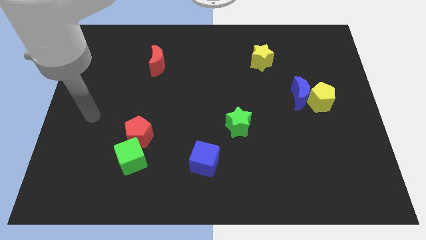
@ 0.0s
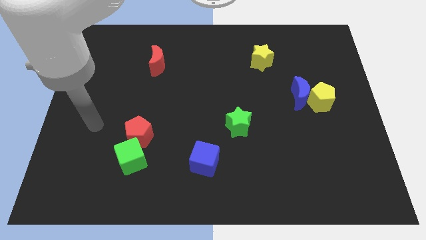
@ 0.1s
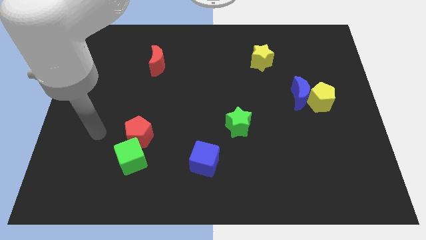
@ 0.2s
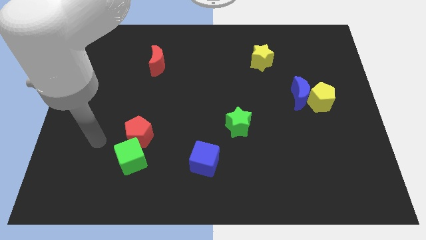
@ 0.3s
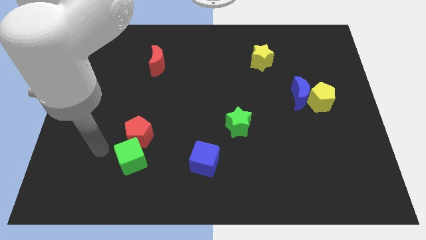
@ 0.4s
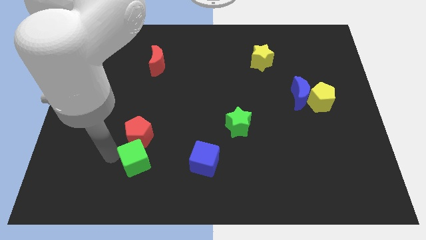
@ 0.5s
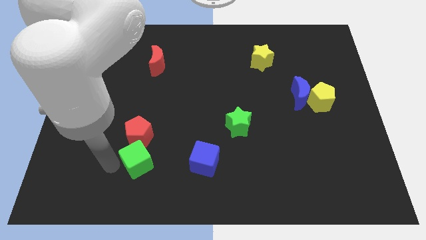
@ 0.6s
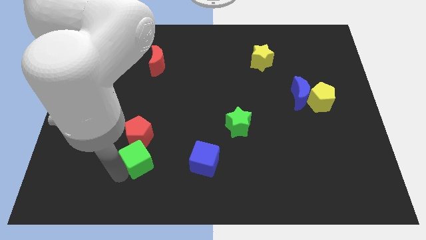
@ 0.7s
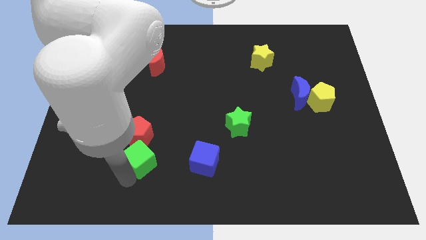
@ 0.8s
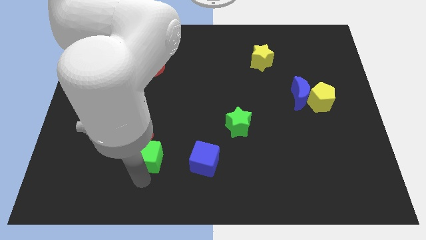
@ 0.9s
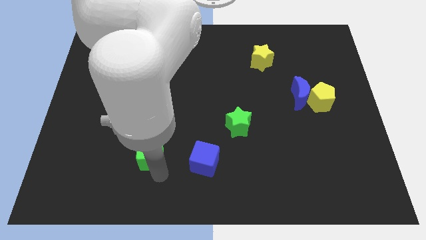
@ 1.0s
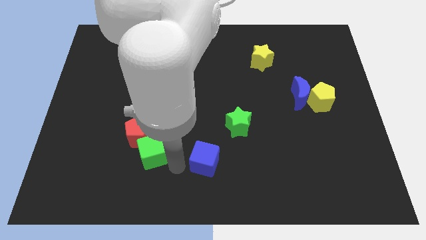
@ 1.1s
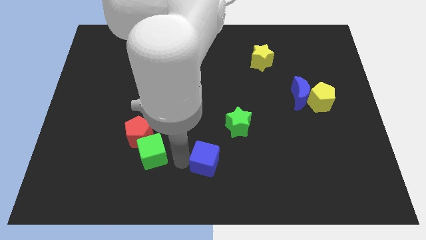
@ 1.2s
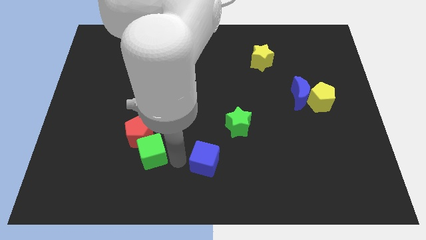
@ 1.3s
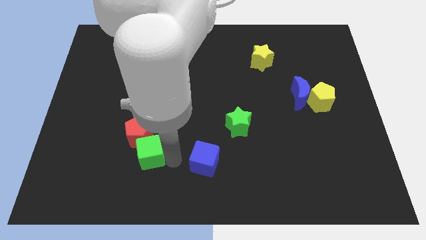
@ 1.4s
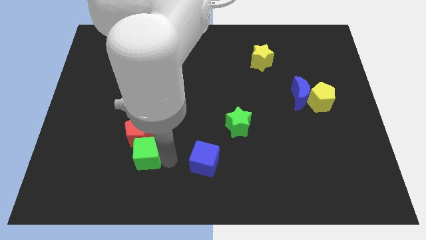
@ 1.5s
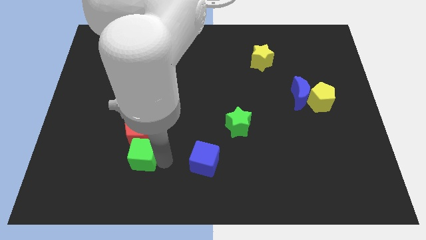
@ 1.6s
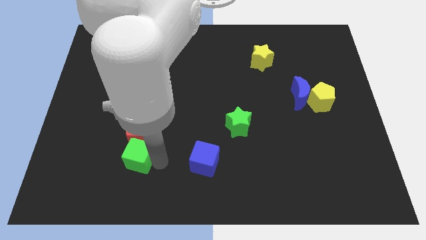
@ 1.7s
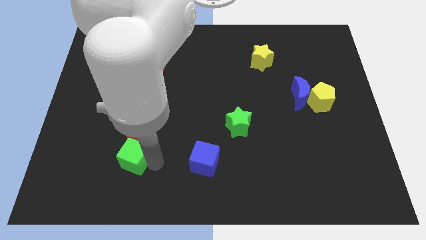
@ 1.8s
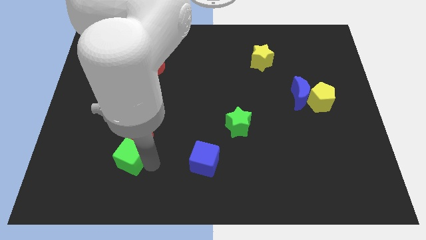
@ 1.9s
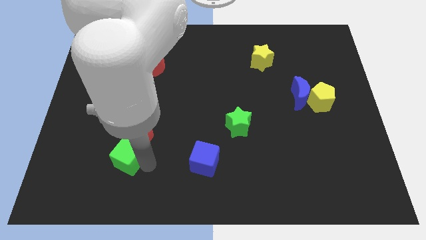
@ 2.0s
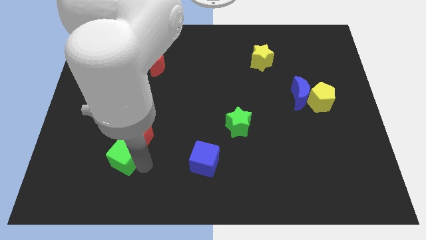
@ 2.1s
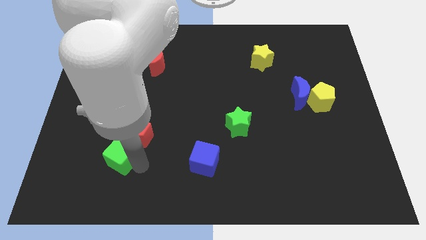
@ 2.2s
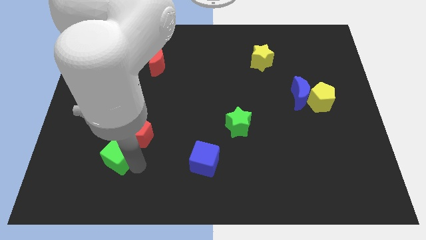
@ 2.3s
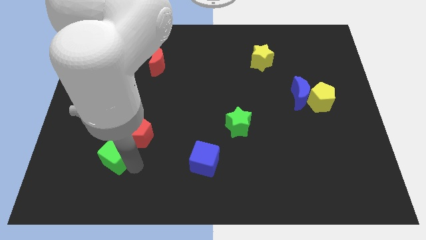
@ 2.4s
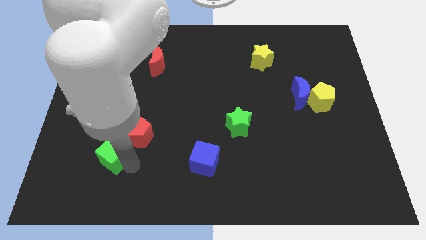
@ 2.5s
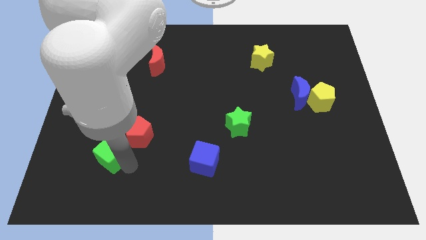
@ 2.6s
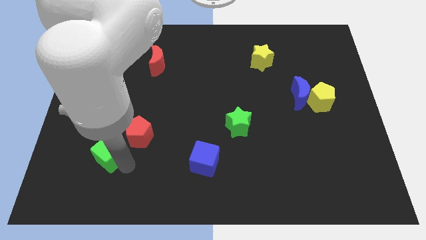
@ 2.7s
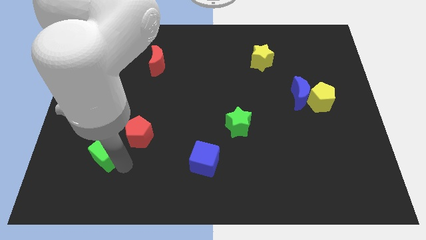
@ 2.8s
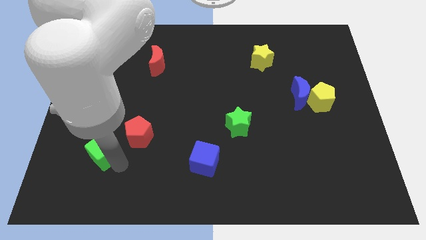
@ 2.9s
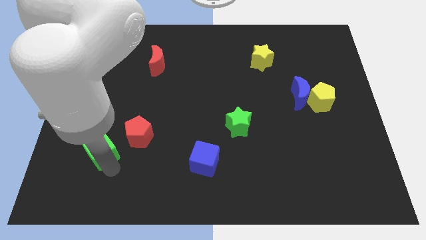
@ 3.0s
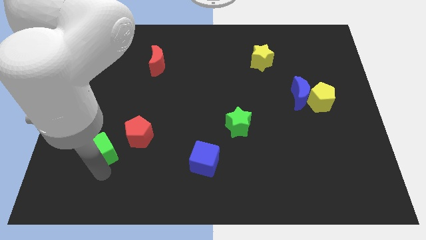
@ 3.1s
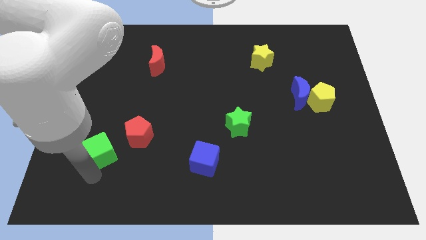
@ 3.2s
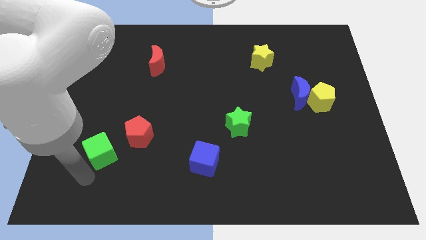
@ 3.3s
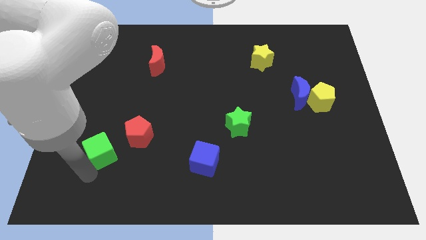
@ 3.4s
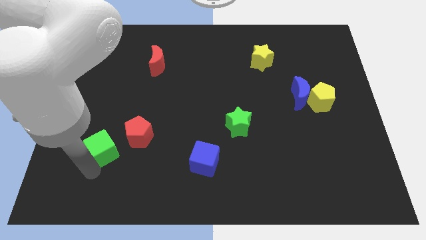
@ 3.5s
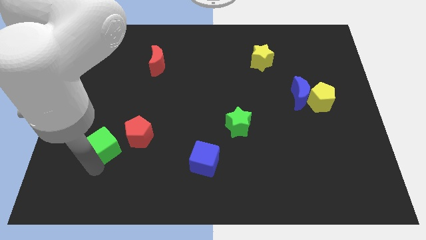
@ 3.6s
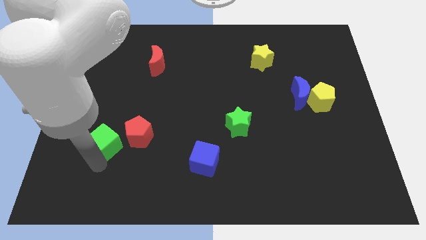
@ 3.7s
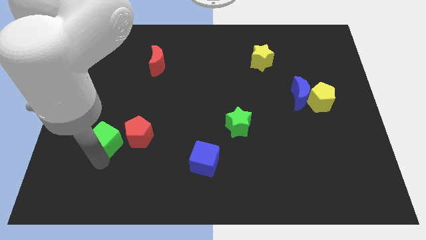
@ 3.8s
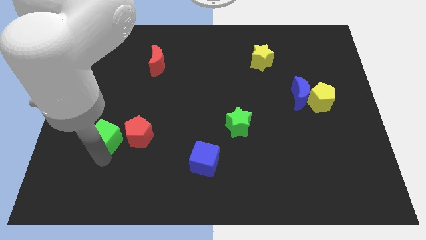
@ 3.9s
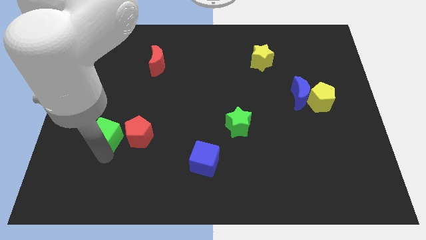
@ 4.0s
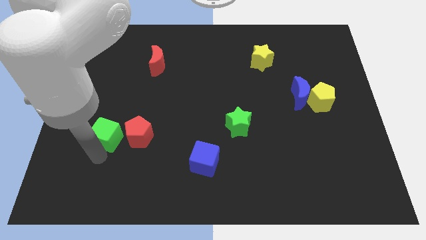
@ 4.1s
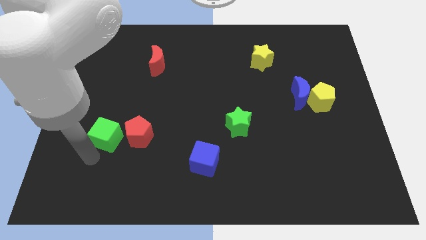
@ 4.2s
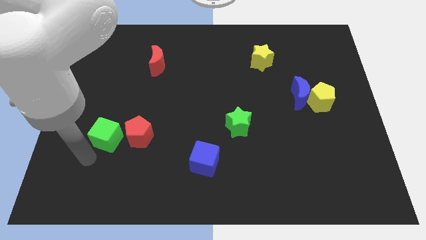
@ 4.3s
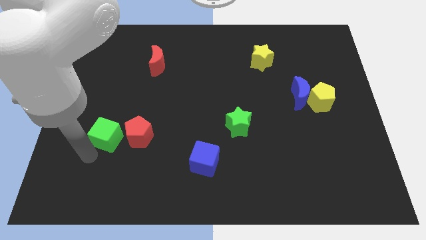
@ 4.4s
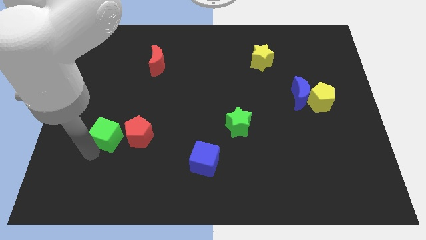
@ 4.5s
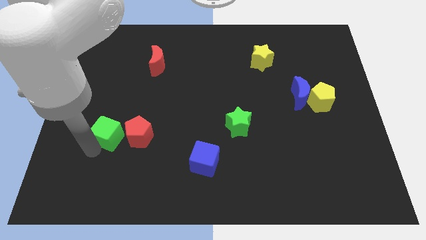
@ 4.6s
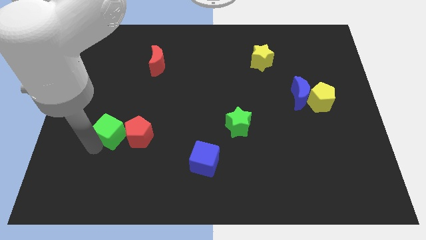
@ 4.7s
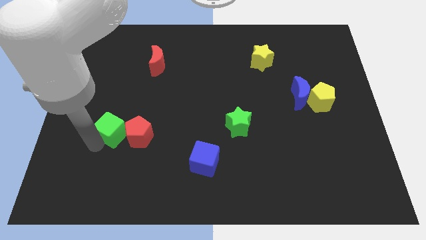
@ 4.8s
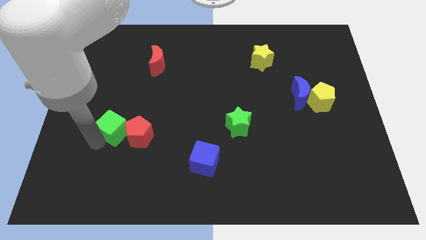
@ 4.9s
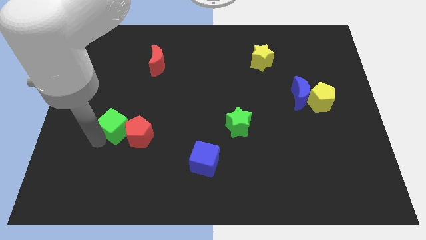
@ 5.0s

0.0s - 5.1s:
push the green cube upwards a bit

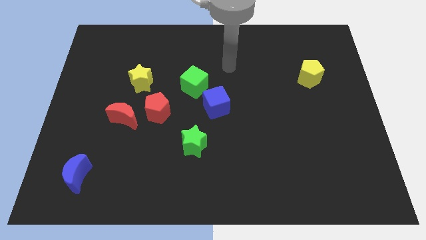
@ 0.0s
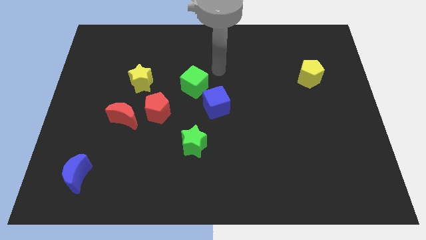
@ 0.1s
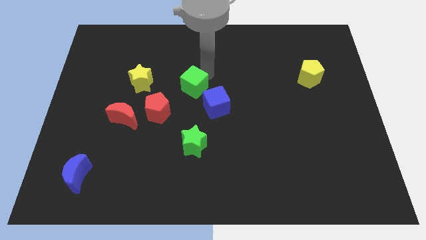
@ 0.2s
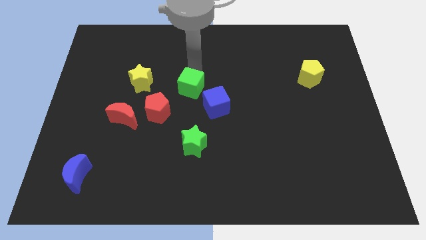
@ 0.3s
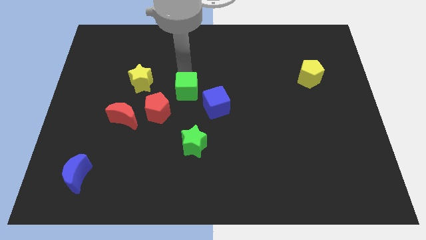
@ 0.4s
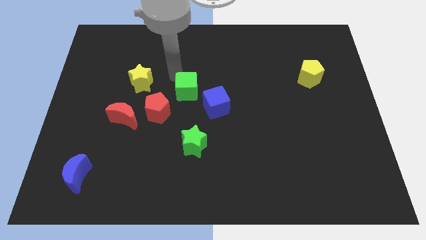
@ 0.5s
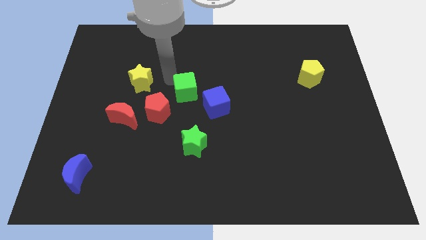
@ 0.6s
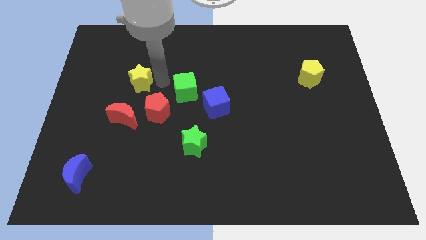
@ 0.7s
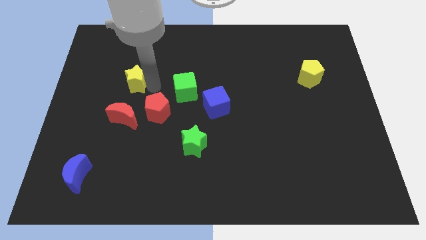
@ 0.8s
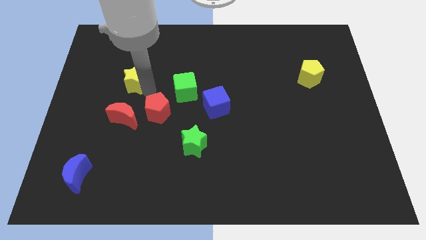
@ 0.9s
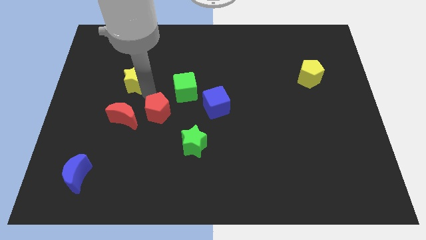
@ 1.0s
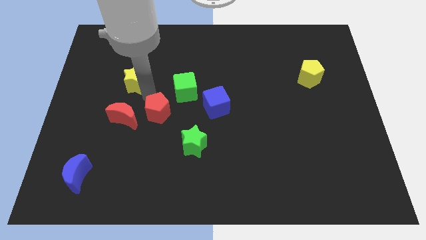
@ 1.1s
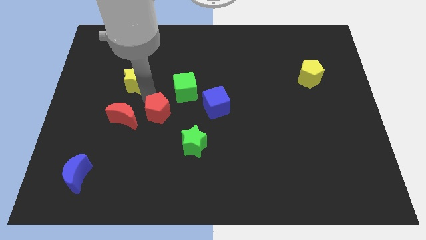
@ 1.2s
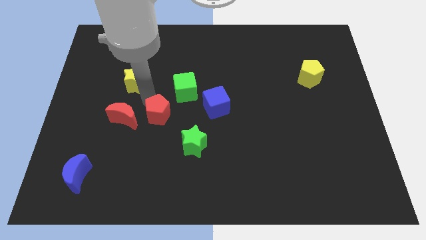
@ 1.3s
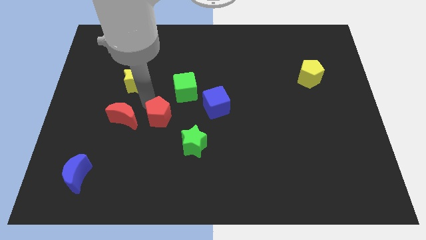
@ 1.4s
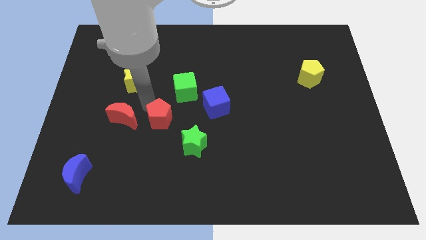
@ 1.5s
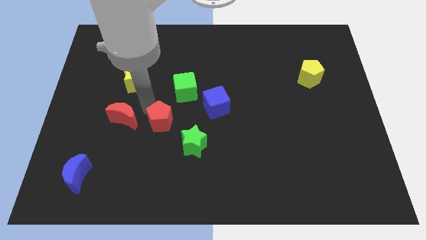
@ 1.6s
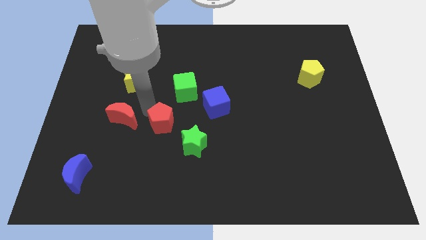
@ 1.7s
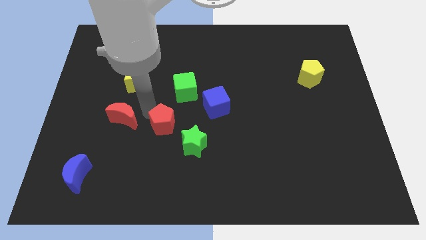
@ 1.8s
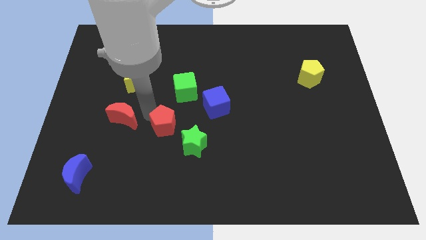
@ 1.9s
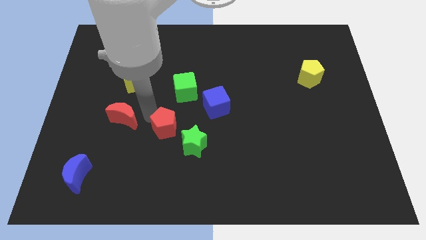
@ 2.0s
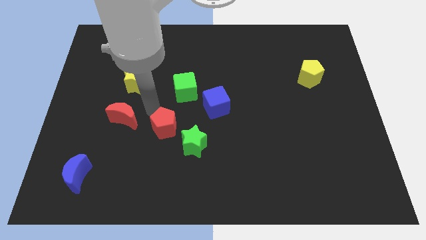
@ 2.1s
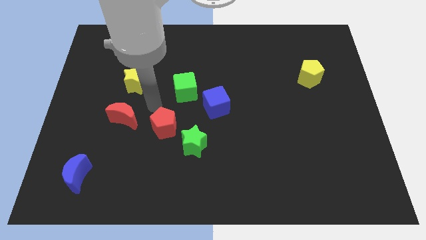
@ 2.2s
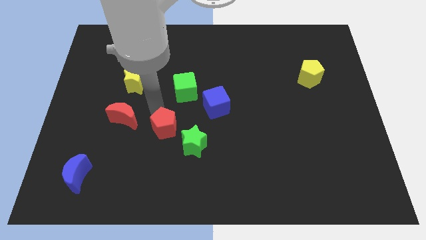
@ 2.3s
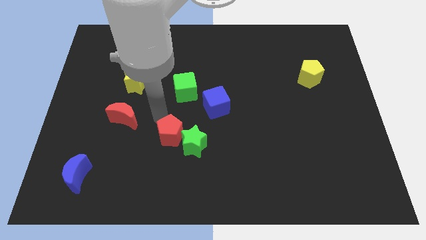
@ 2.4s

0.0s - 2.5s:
slightly move the red pentagon diagonally down and right

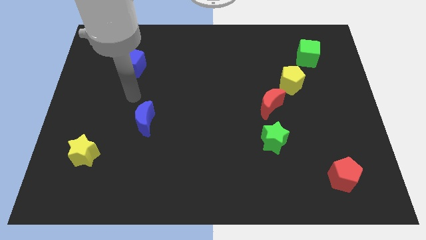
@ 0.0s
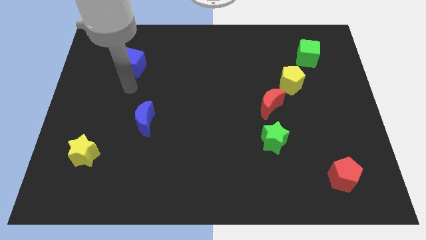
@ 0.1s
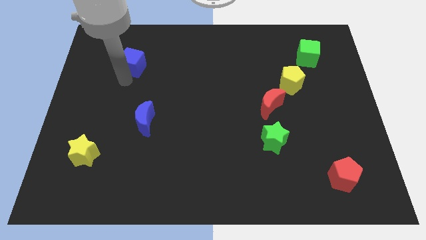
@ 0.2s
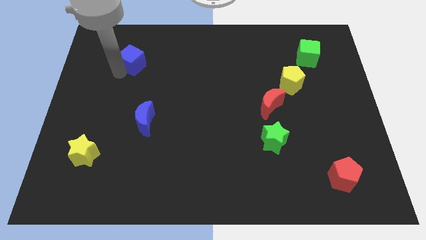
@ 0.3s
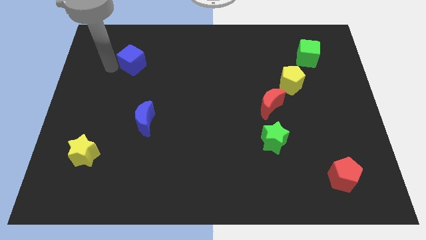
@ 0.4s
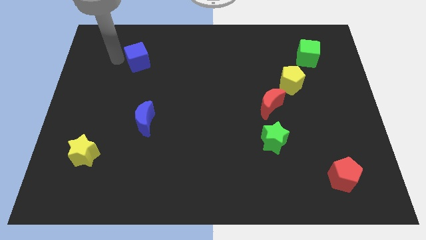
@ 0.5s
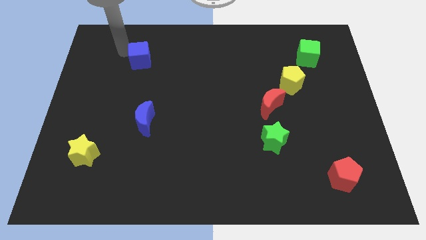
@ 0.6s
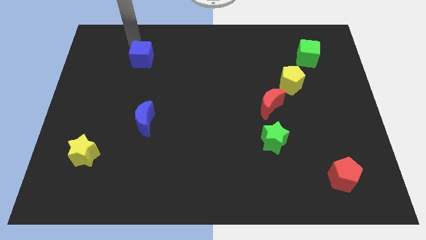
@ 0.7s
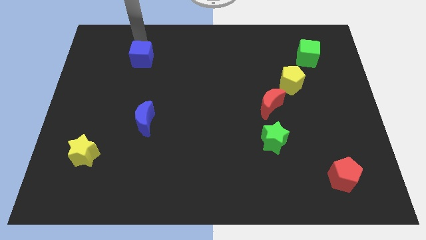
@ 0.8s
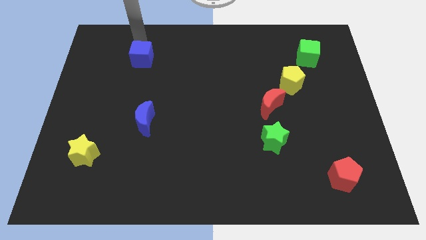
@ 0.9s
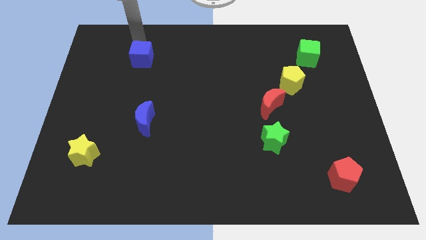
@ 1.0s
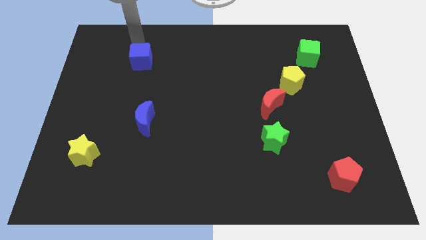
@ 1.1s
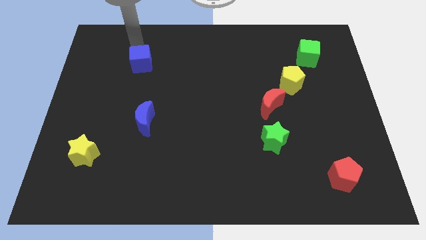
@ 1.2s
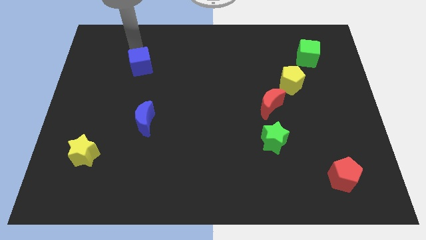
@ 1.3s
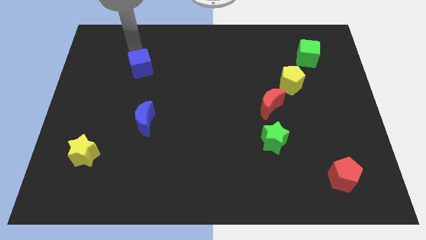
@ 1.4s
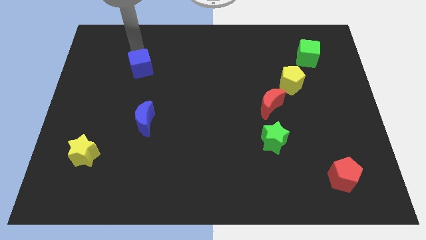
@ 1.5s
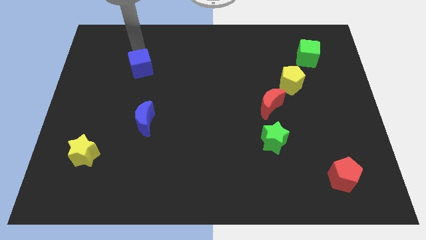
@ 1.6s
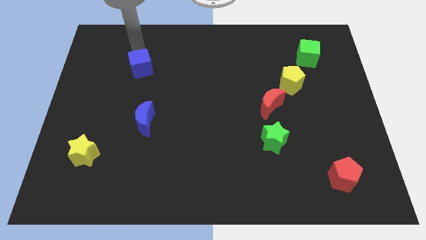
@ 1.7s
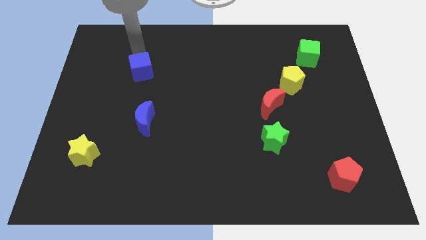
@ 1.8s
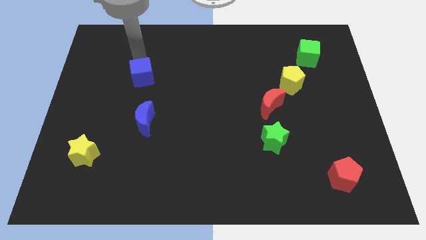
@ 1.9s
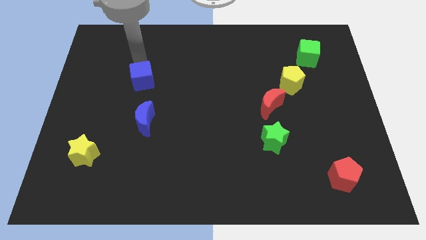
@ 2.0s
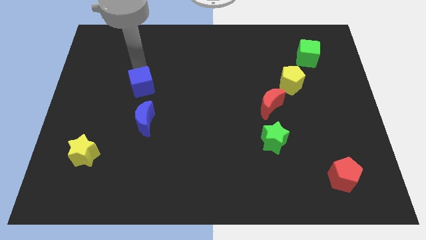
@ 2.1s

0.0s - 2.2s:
slightly slide the blue cube downwards and to the right
